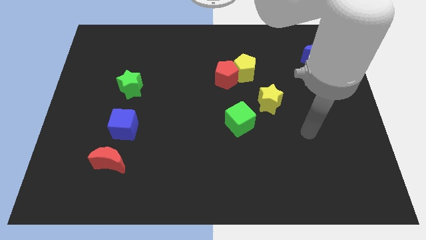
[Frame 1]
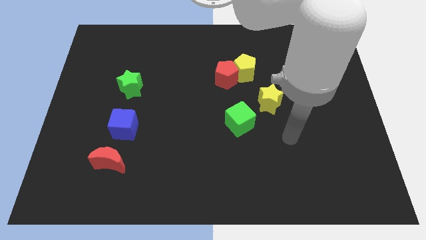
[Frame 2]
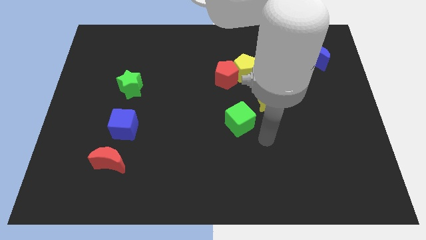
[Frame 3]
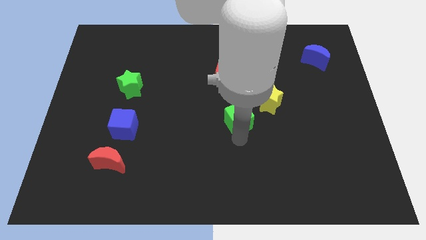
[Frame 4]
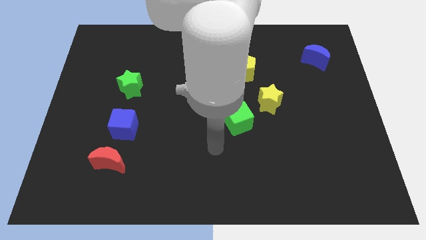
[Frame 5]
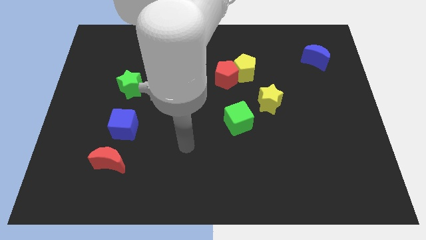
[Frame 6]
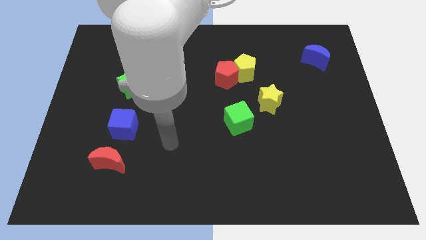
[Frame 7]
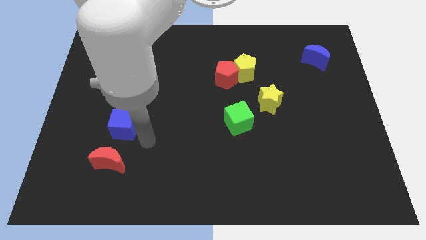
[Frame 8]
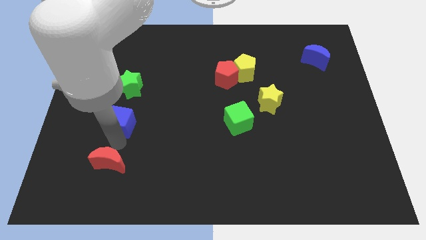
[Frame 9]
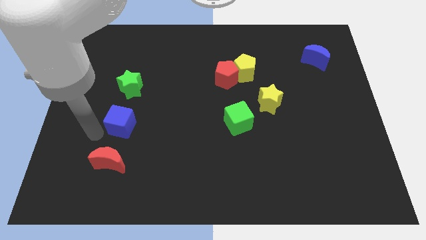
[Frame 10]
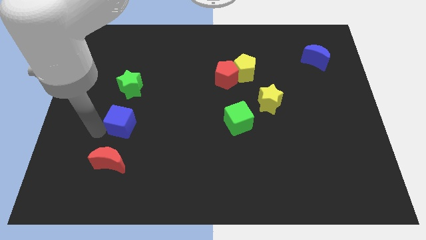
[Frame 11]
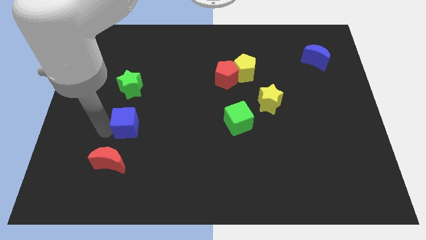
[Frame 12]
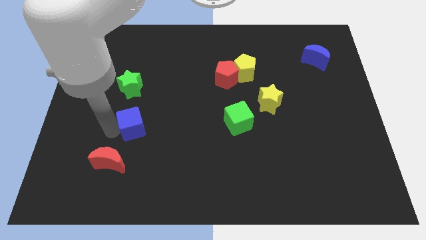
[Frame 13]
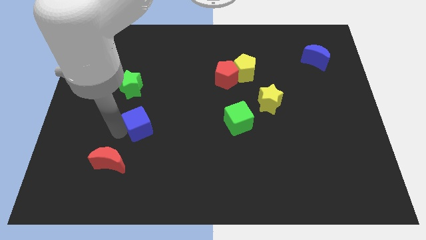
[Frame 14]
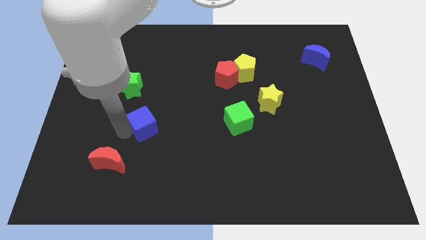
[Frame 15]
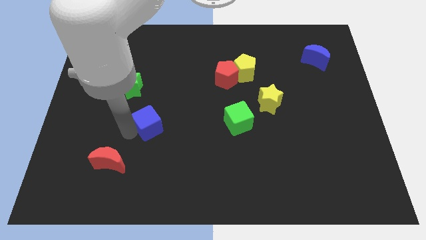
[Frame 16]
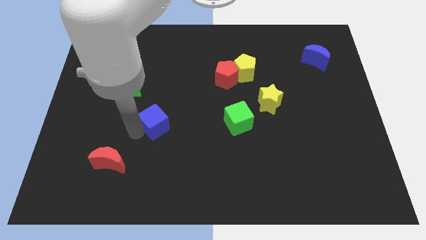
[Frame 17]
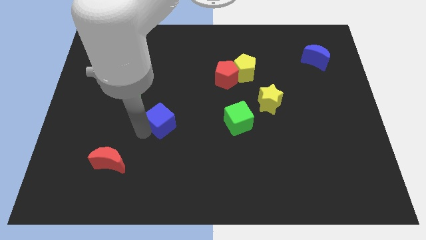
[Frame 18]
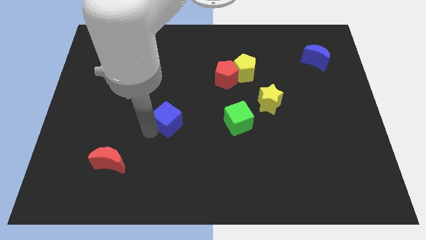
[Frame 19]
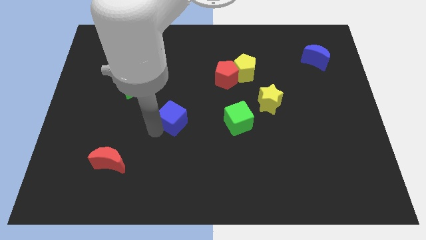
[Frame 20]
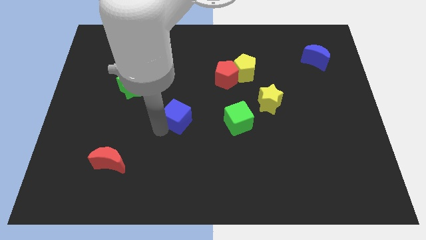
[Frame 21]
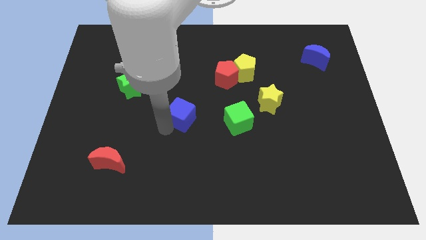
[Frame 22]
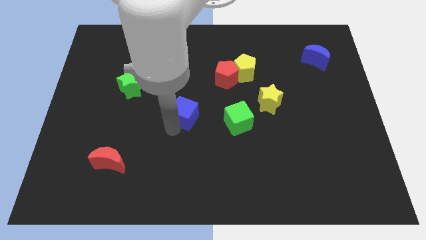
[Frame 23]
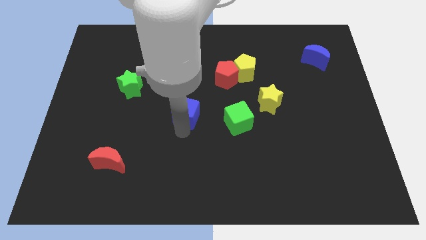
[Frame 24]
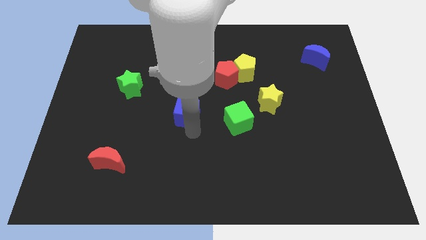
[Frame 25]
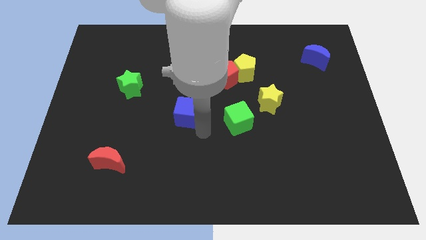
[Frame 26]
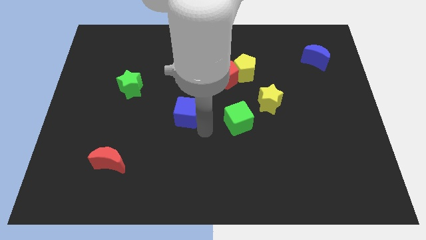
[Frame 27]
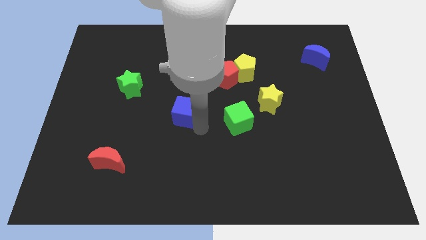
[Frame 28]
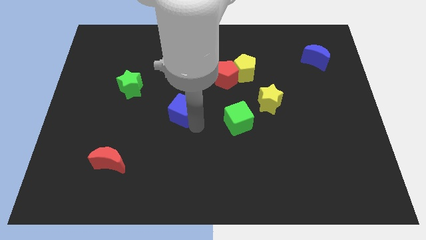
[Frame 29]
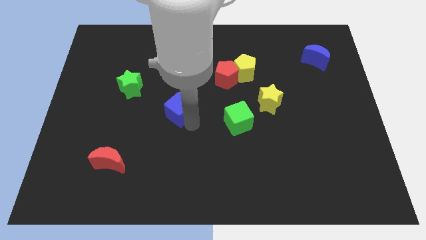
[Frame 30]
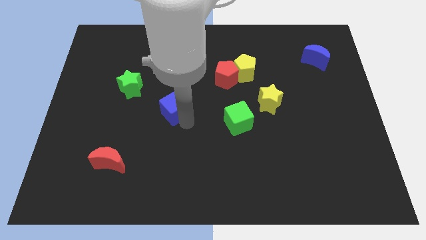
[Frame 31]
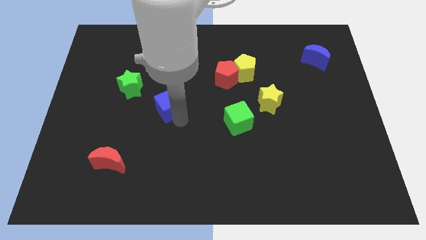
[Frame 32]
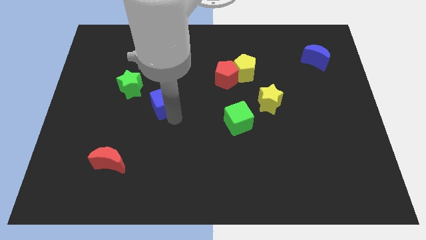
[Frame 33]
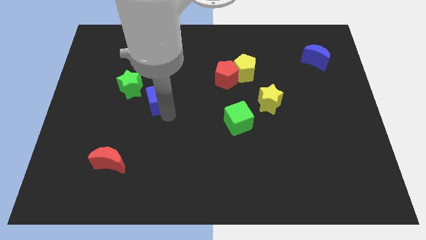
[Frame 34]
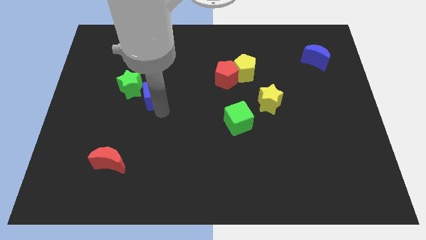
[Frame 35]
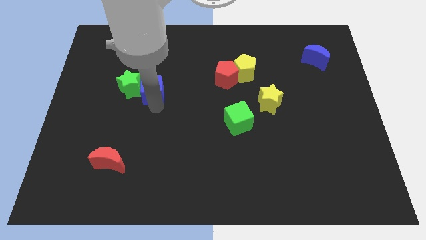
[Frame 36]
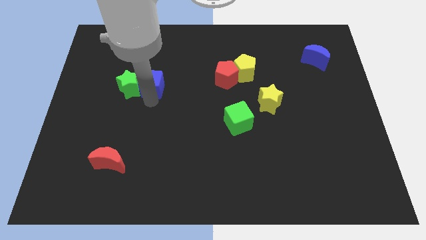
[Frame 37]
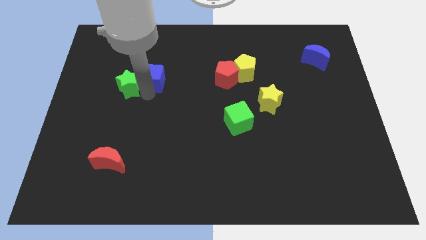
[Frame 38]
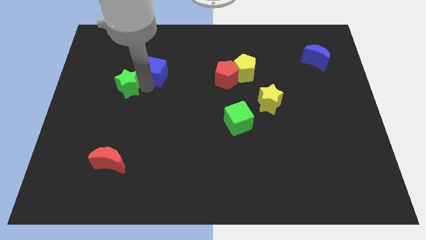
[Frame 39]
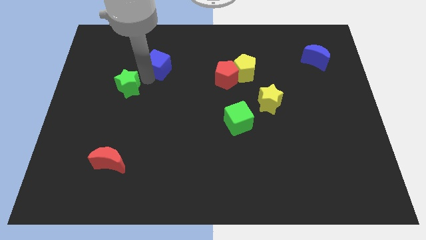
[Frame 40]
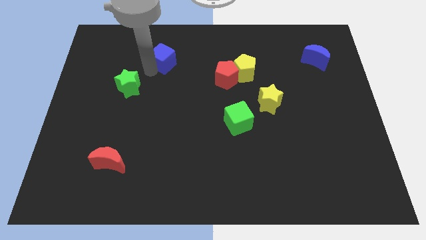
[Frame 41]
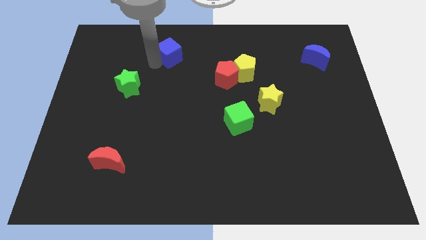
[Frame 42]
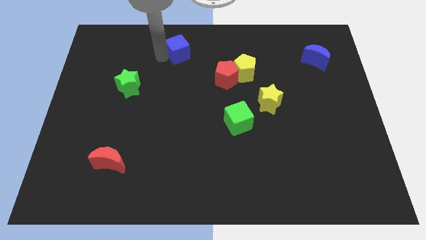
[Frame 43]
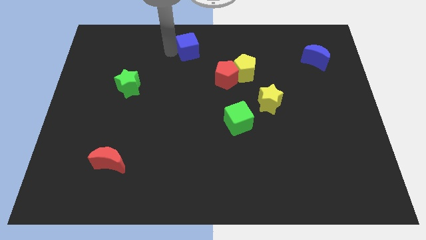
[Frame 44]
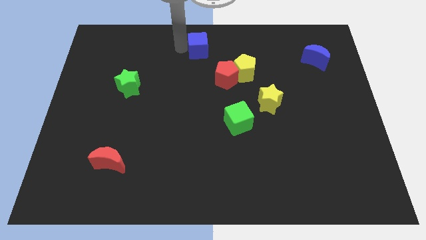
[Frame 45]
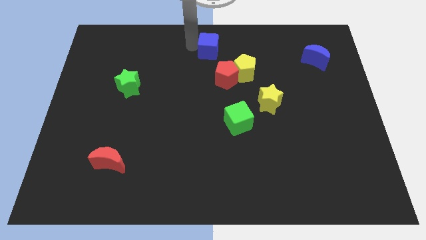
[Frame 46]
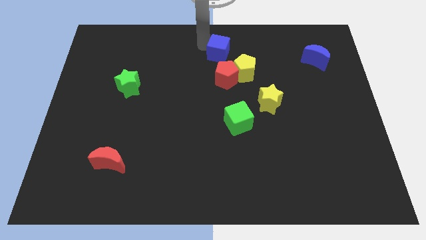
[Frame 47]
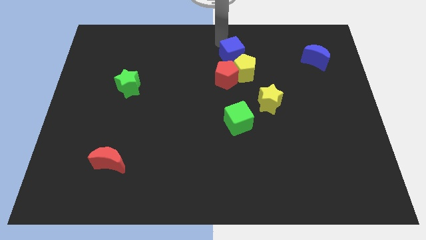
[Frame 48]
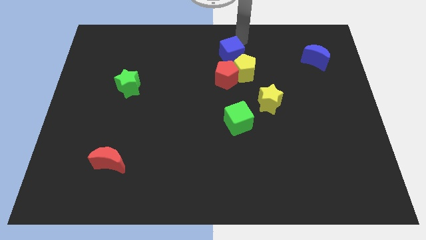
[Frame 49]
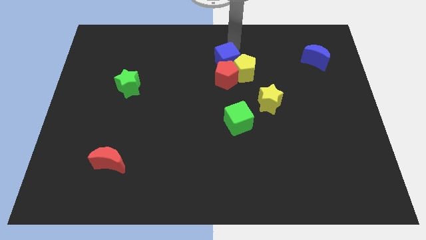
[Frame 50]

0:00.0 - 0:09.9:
put the blue cube to the yellow pentagon

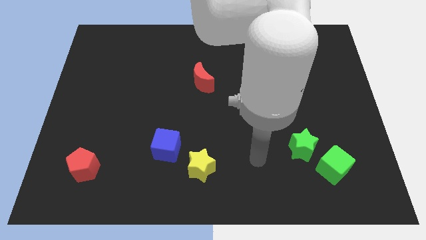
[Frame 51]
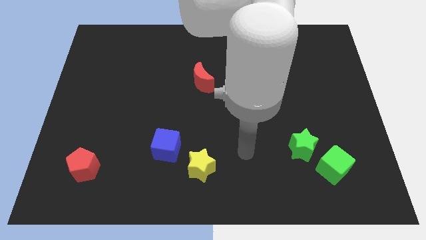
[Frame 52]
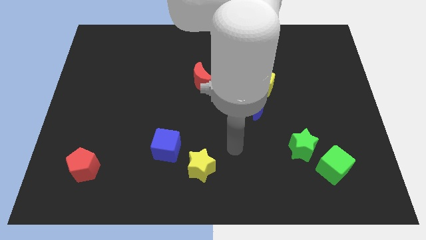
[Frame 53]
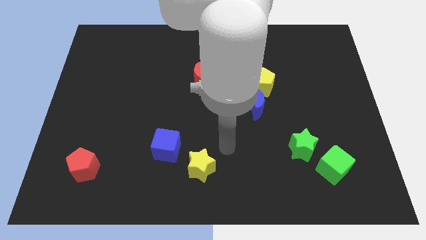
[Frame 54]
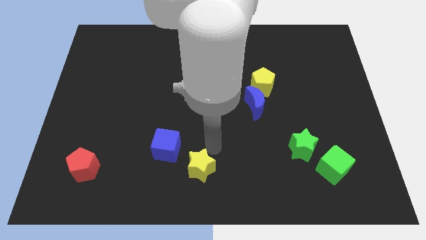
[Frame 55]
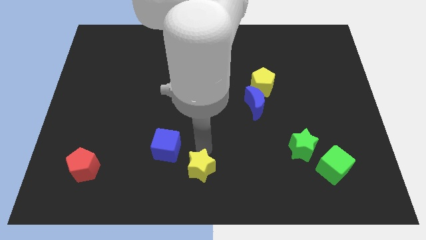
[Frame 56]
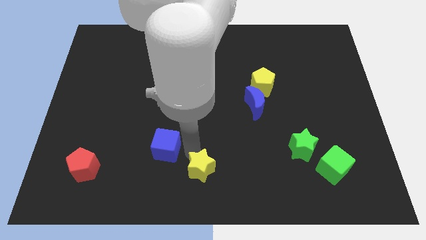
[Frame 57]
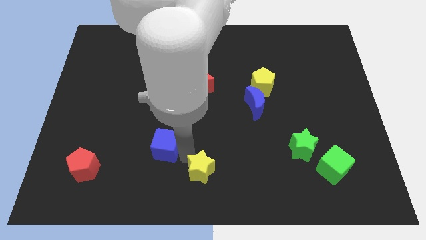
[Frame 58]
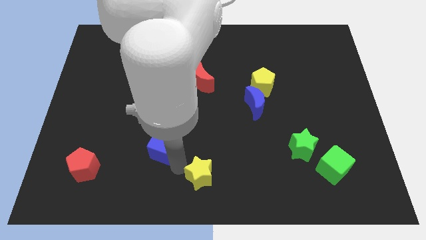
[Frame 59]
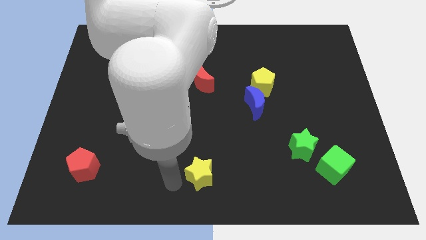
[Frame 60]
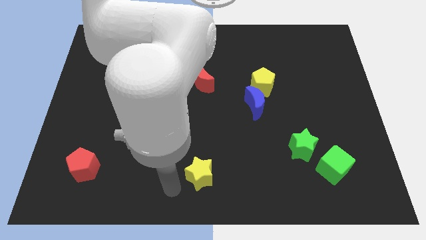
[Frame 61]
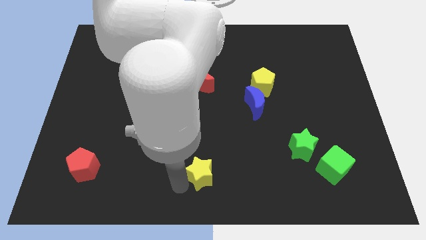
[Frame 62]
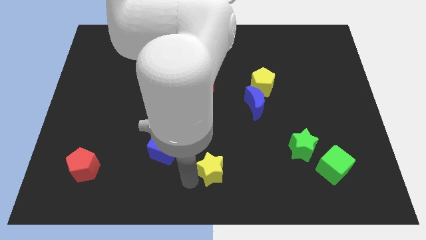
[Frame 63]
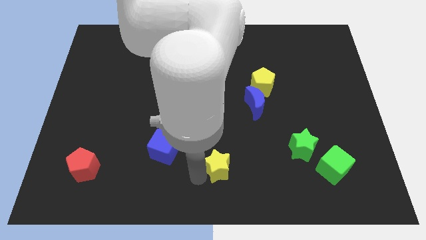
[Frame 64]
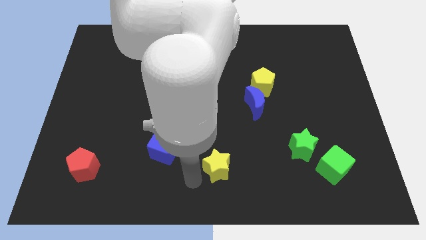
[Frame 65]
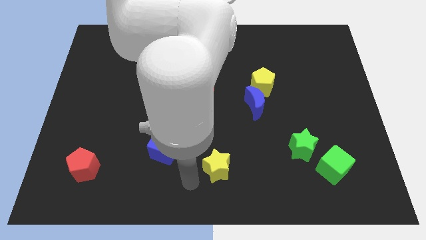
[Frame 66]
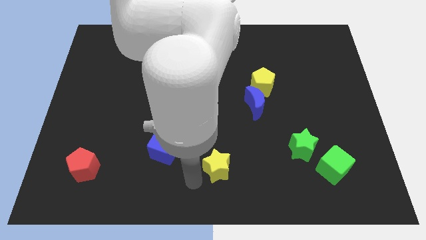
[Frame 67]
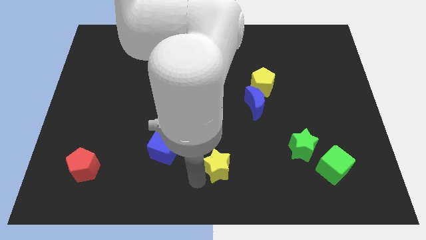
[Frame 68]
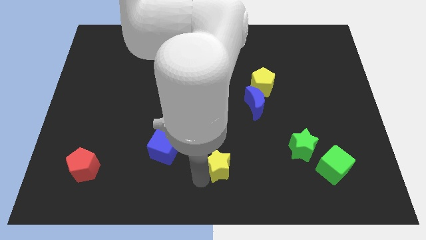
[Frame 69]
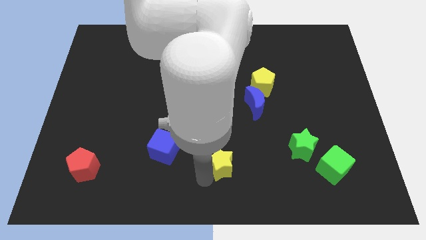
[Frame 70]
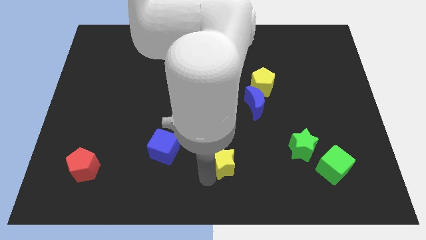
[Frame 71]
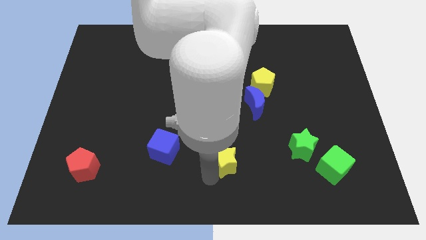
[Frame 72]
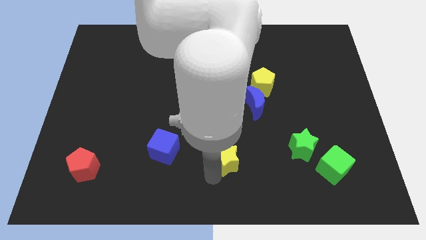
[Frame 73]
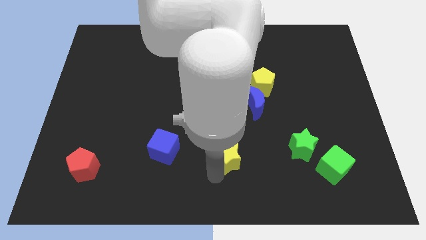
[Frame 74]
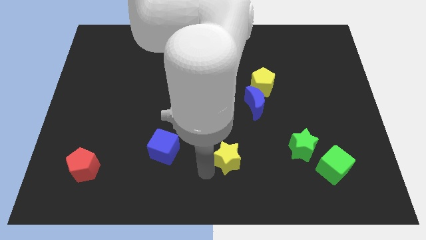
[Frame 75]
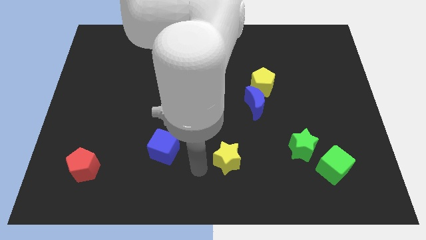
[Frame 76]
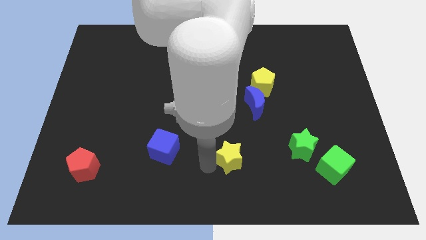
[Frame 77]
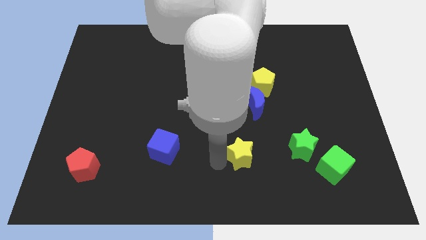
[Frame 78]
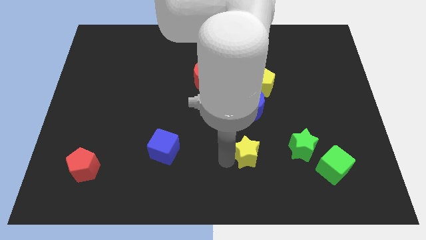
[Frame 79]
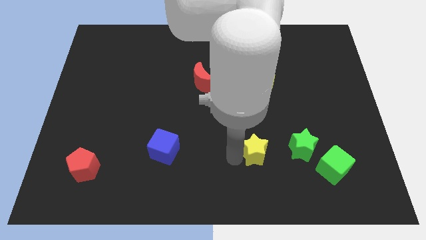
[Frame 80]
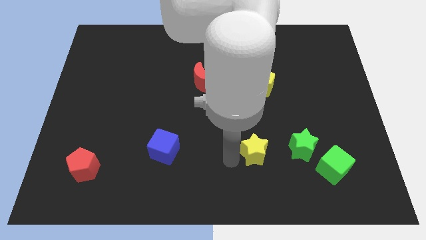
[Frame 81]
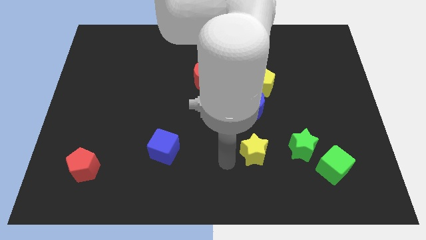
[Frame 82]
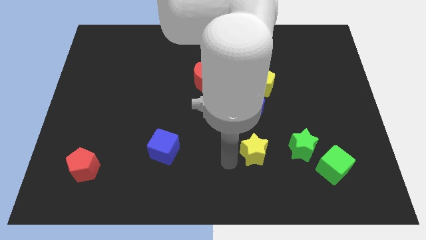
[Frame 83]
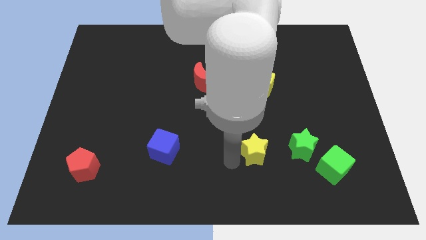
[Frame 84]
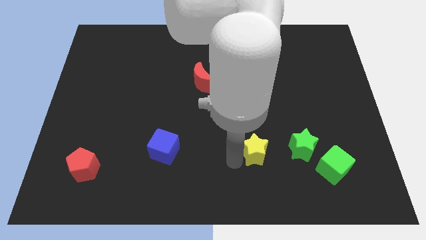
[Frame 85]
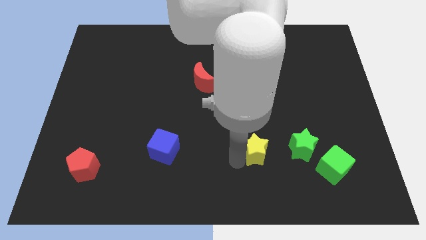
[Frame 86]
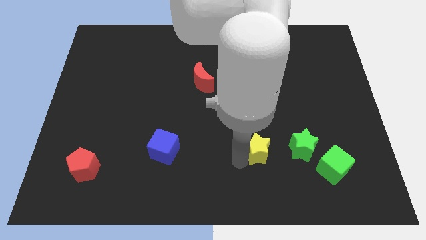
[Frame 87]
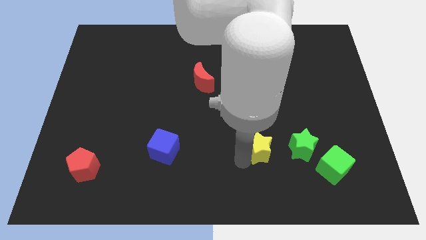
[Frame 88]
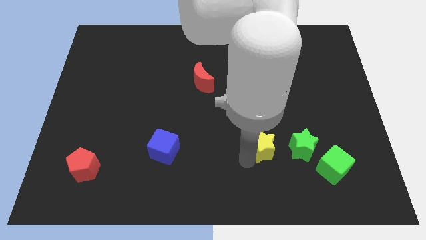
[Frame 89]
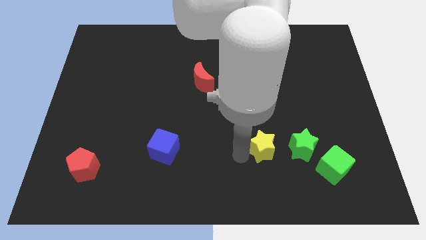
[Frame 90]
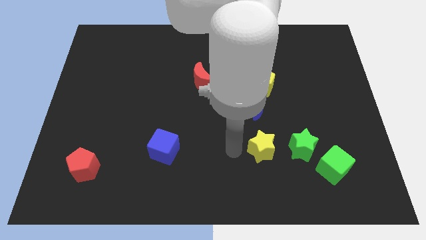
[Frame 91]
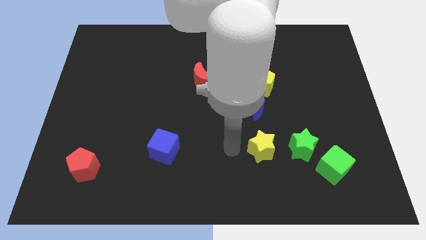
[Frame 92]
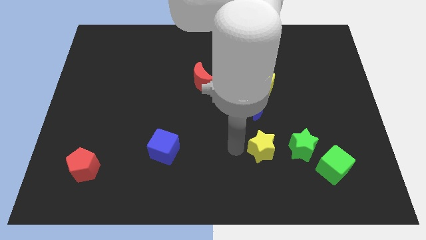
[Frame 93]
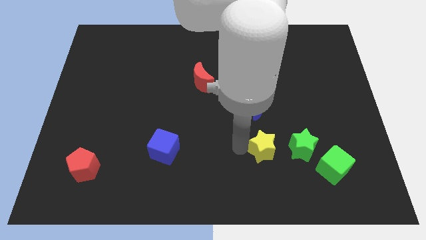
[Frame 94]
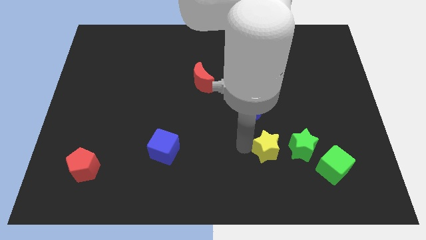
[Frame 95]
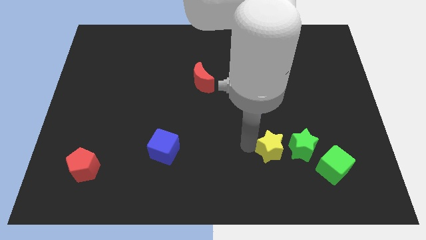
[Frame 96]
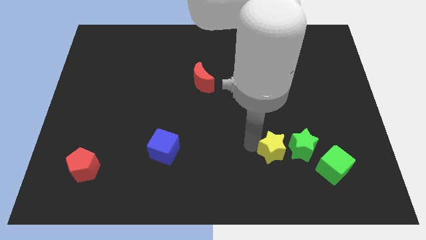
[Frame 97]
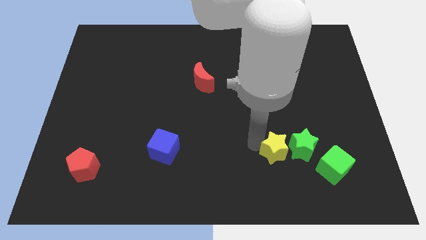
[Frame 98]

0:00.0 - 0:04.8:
slide the yellow star towards the green star
